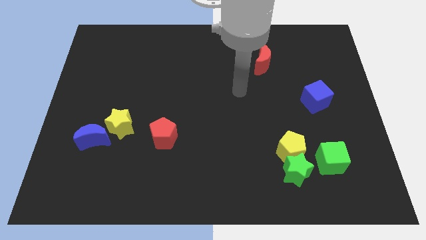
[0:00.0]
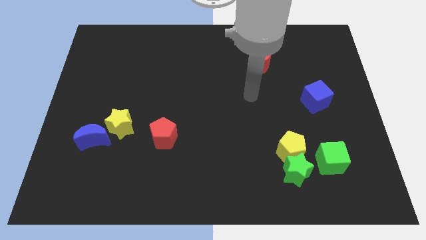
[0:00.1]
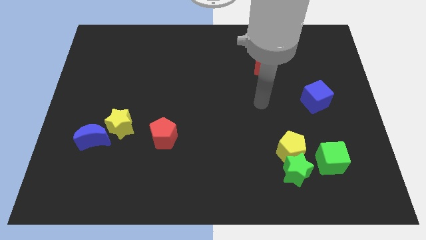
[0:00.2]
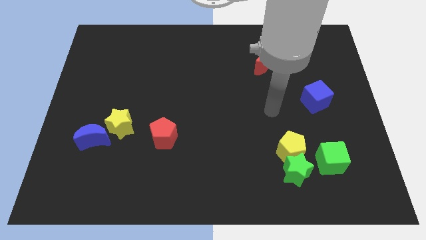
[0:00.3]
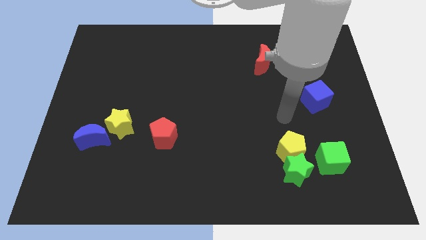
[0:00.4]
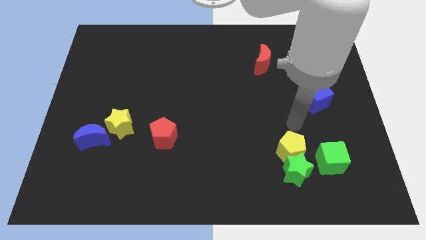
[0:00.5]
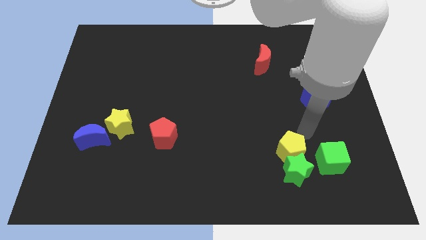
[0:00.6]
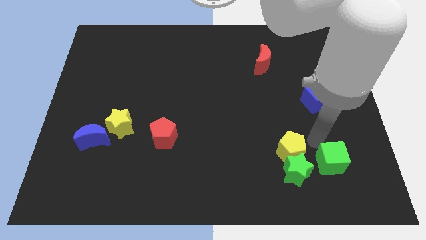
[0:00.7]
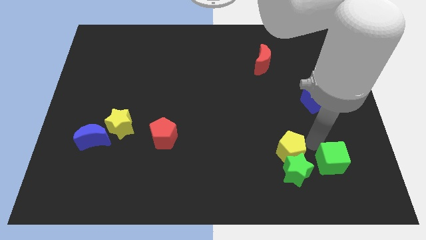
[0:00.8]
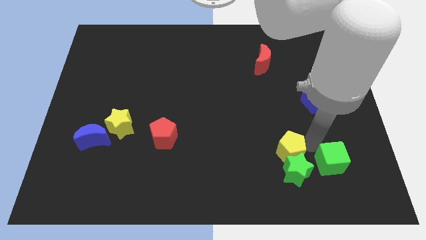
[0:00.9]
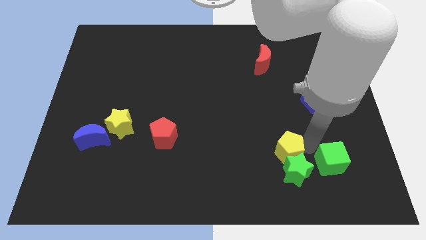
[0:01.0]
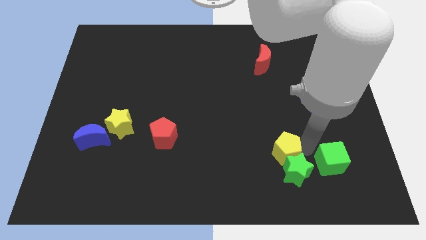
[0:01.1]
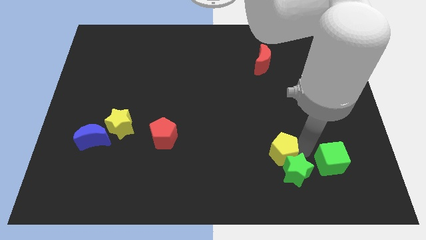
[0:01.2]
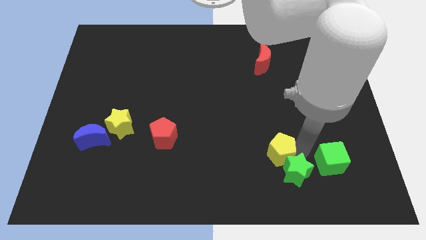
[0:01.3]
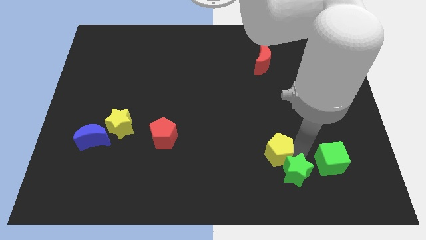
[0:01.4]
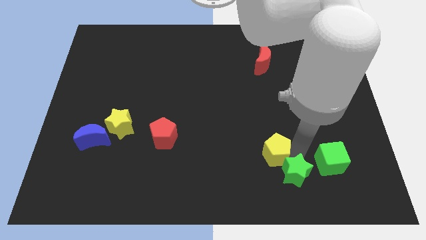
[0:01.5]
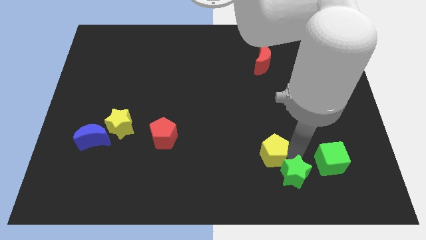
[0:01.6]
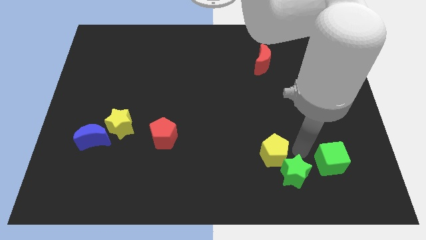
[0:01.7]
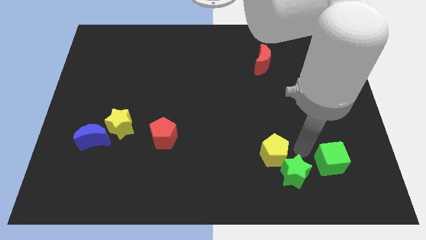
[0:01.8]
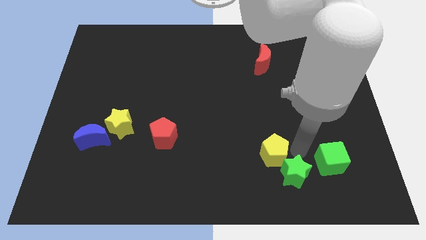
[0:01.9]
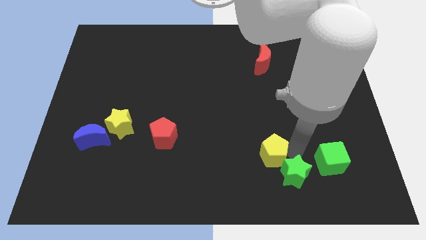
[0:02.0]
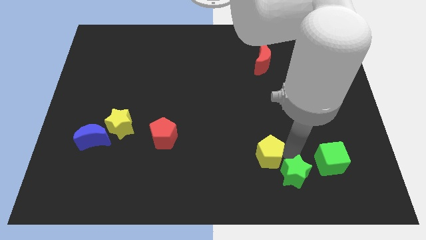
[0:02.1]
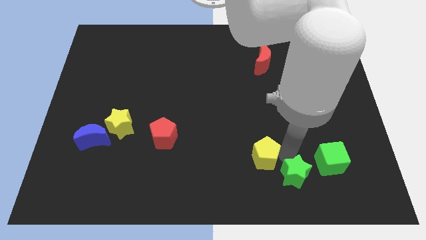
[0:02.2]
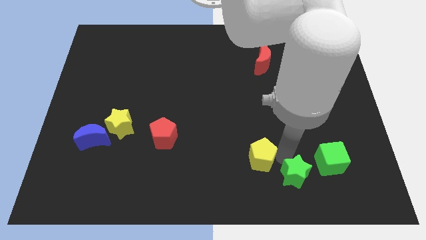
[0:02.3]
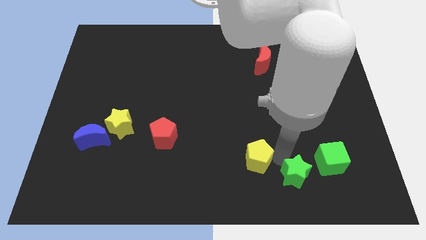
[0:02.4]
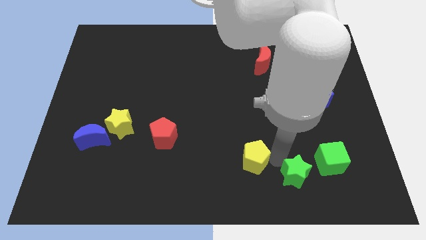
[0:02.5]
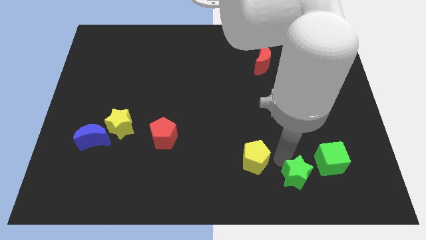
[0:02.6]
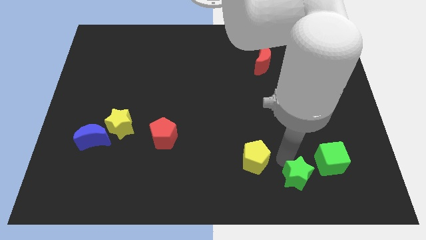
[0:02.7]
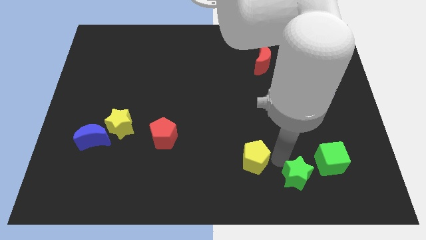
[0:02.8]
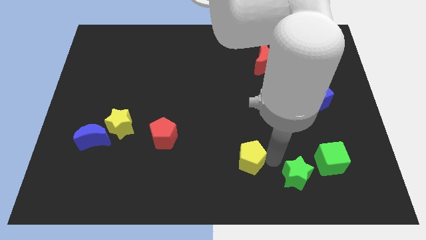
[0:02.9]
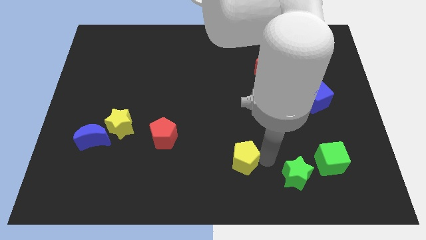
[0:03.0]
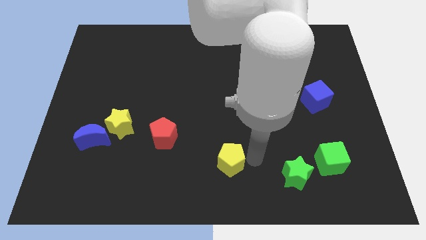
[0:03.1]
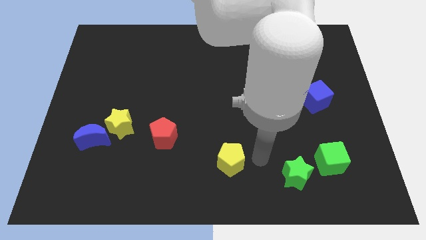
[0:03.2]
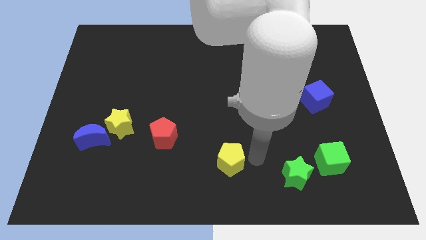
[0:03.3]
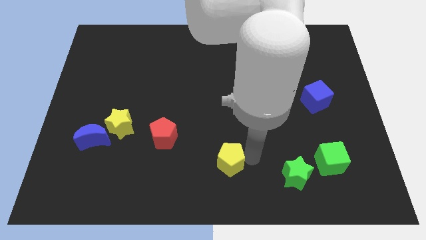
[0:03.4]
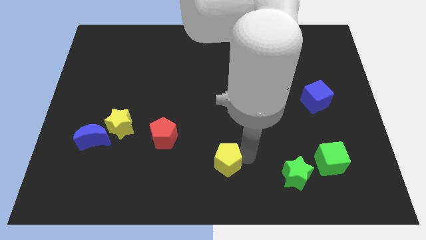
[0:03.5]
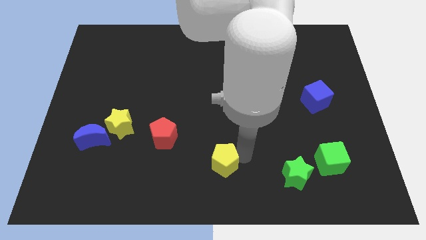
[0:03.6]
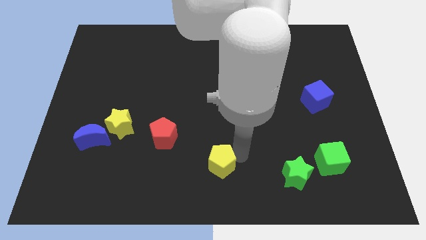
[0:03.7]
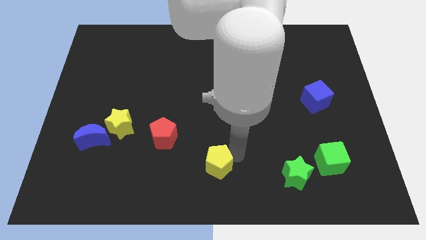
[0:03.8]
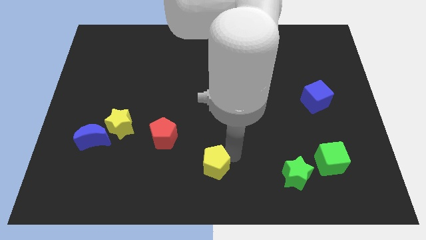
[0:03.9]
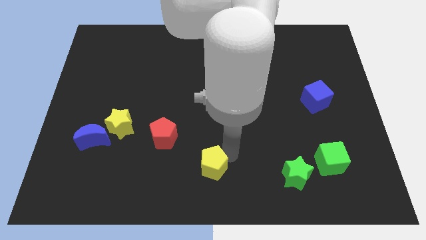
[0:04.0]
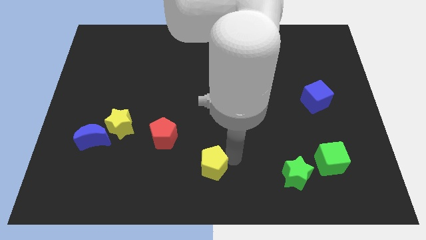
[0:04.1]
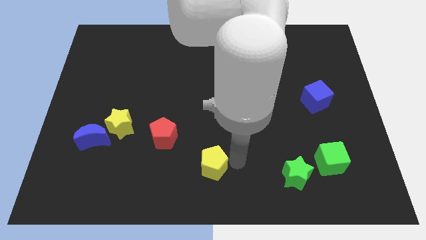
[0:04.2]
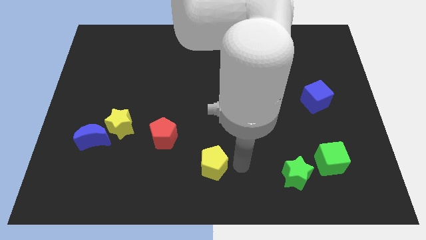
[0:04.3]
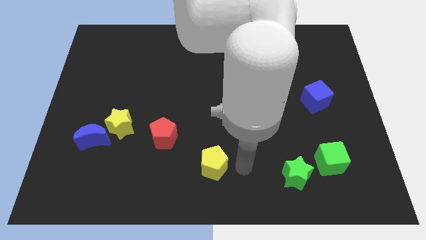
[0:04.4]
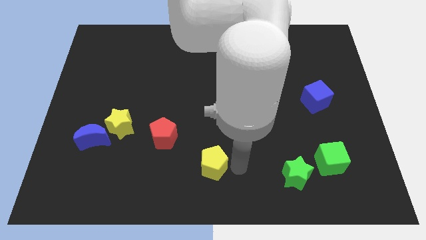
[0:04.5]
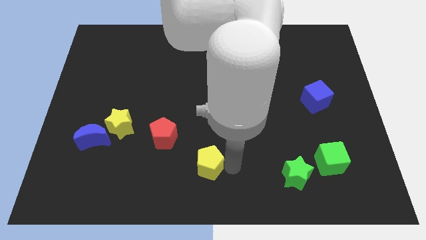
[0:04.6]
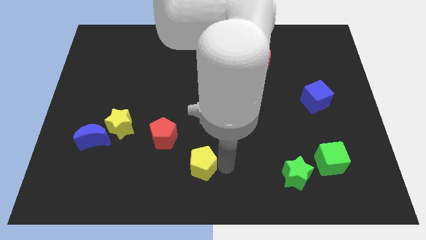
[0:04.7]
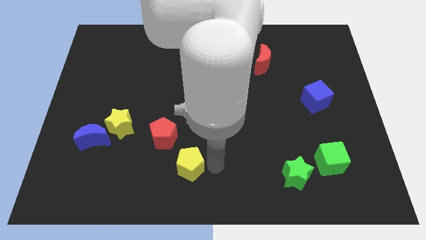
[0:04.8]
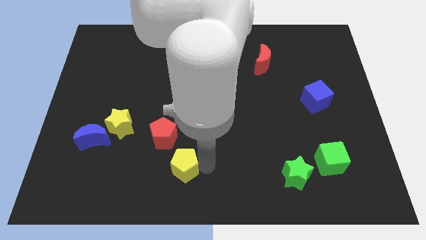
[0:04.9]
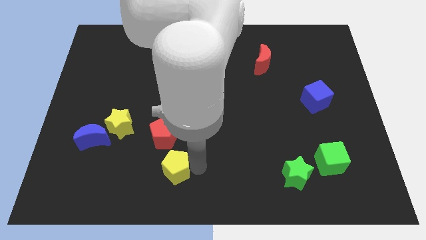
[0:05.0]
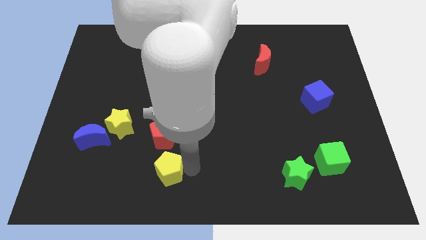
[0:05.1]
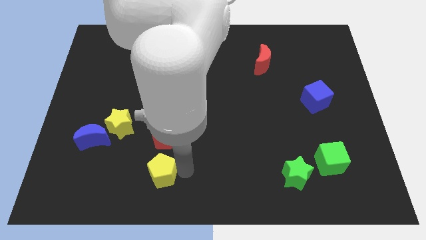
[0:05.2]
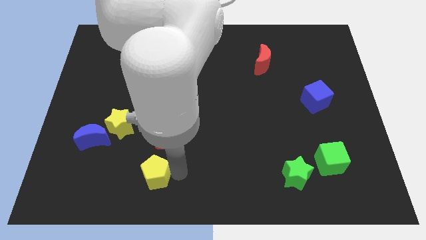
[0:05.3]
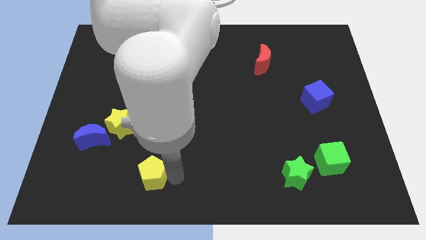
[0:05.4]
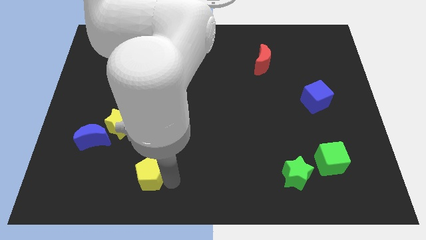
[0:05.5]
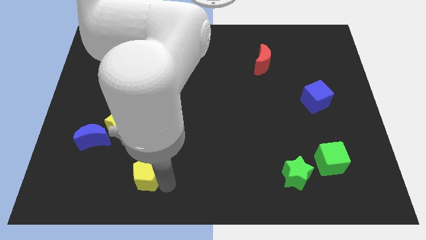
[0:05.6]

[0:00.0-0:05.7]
push the yellow pentagon to the bottom left side of the red pentagon

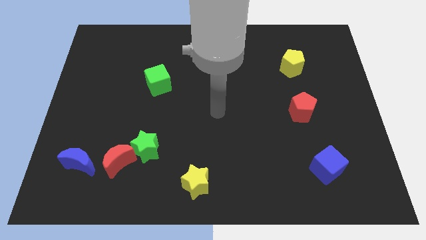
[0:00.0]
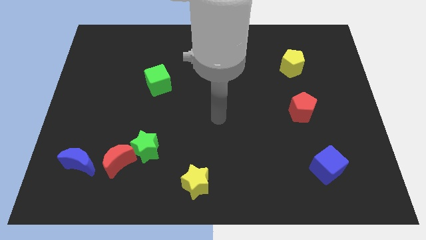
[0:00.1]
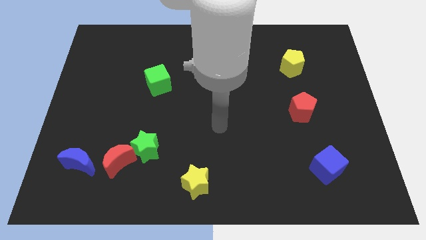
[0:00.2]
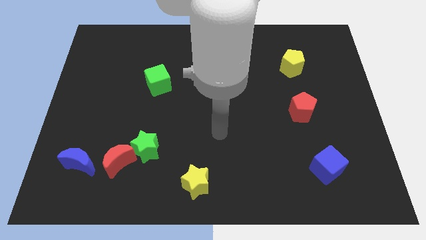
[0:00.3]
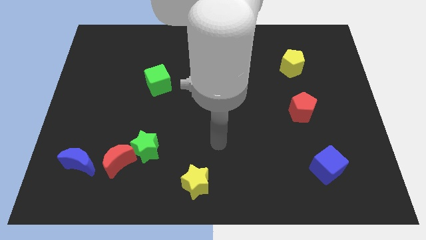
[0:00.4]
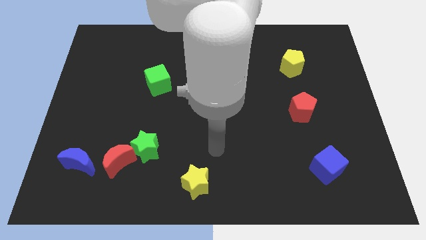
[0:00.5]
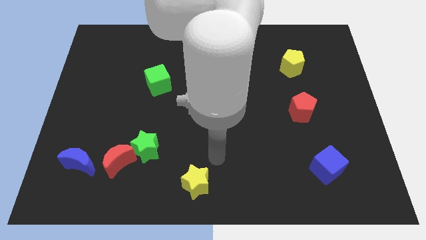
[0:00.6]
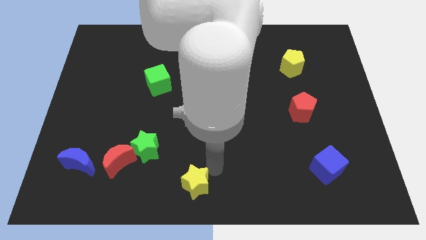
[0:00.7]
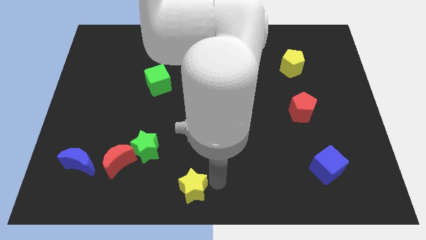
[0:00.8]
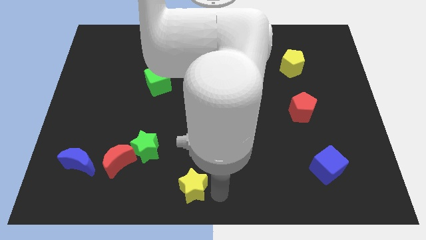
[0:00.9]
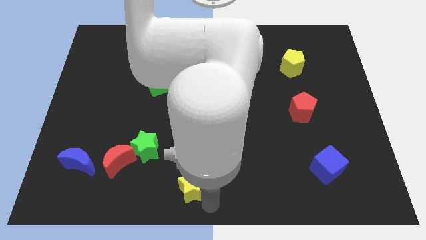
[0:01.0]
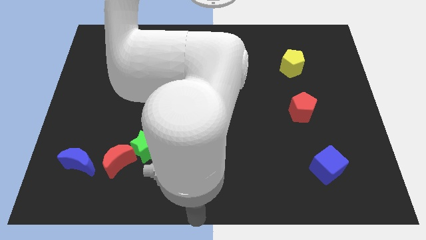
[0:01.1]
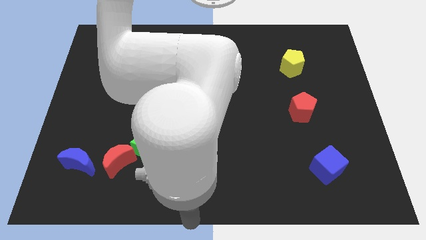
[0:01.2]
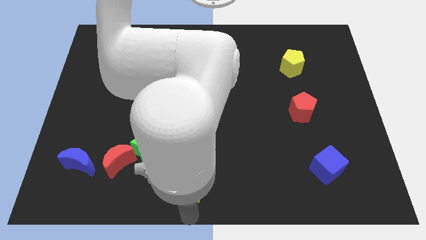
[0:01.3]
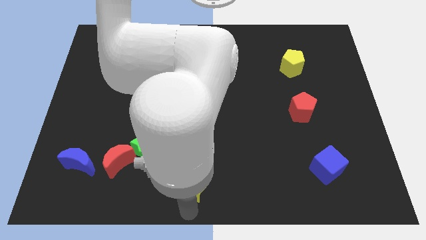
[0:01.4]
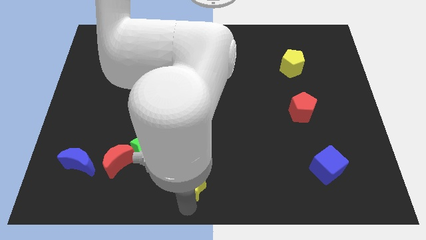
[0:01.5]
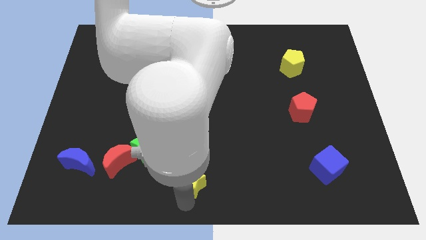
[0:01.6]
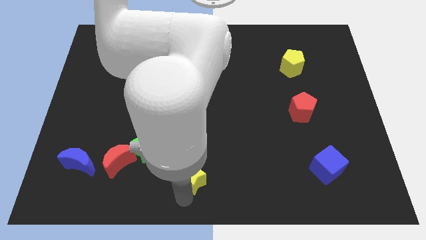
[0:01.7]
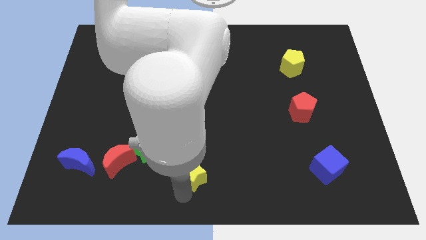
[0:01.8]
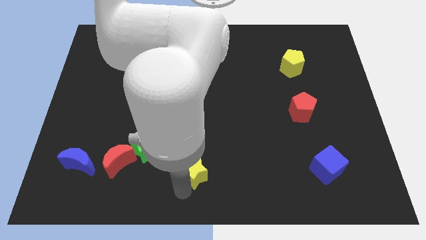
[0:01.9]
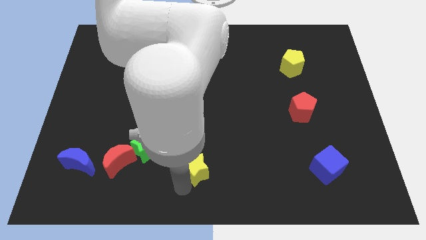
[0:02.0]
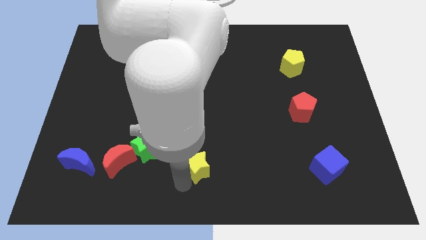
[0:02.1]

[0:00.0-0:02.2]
slide the yellow star just right of the green star
